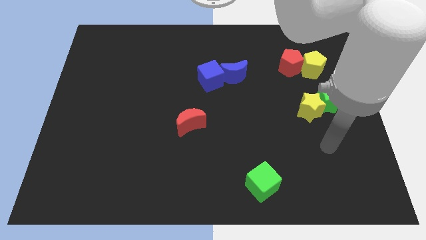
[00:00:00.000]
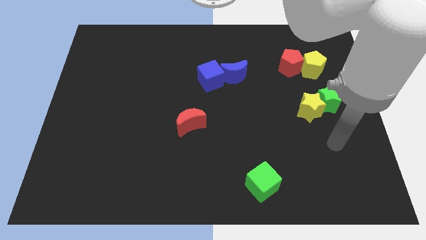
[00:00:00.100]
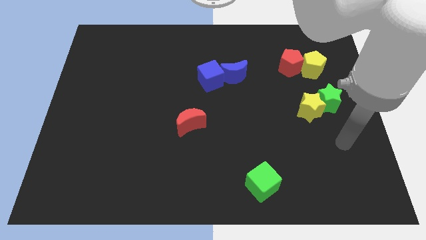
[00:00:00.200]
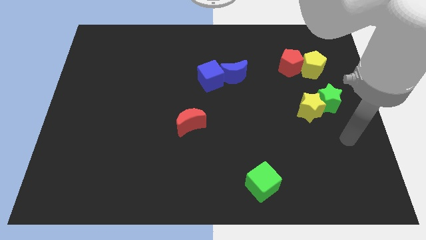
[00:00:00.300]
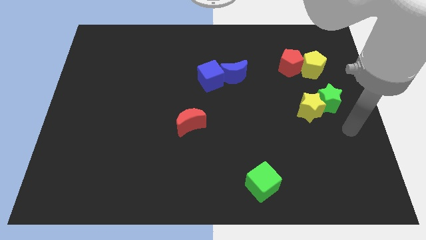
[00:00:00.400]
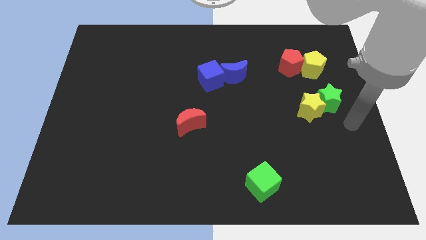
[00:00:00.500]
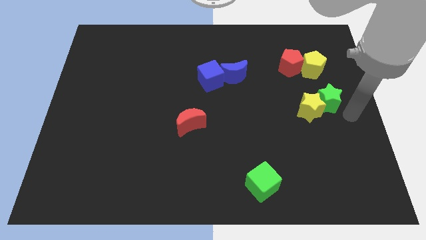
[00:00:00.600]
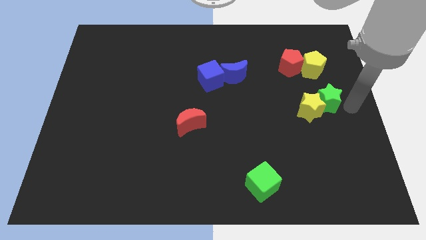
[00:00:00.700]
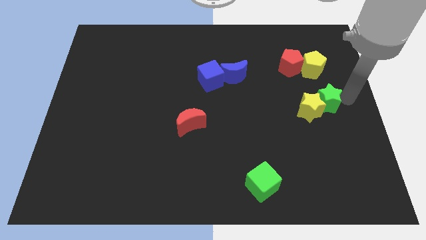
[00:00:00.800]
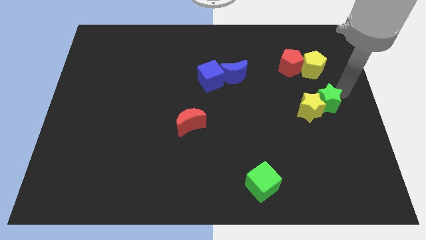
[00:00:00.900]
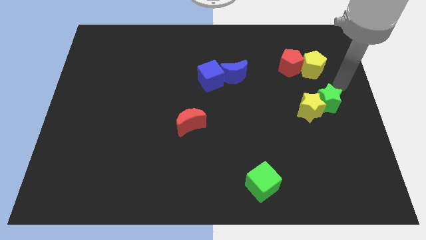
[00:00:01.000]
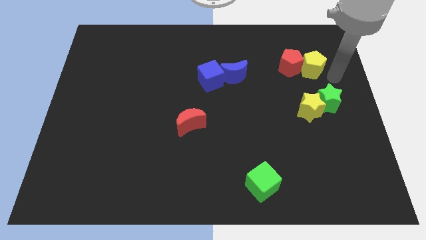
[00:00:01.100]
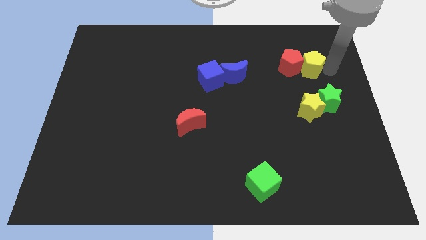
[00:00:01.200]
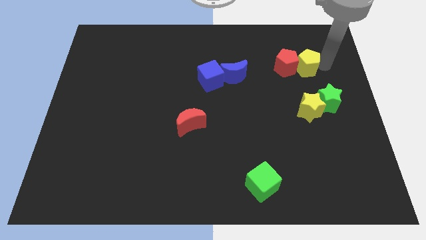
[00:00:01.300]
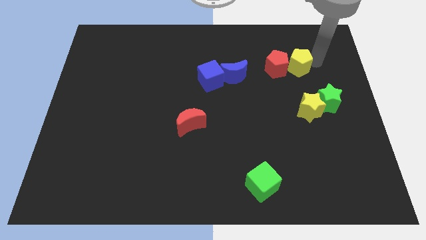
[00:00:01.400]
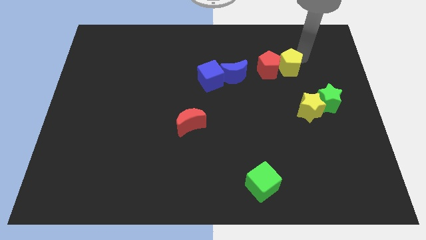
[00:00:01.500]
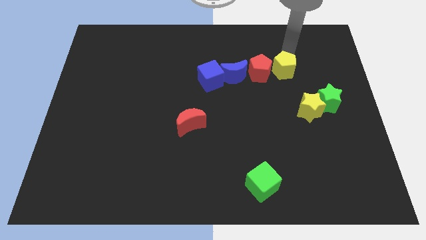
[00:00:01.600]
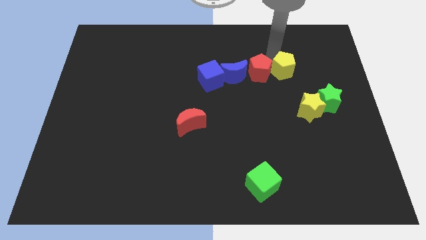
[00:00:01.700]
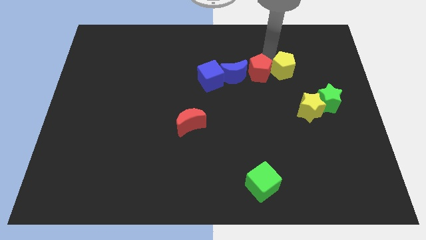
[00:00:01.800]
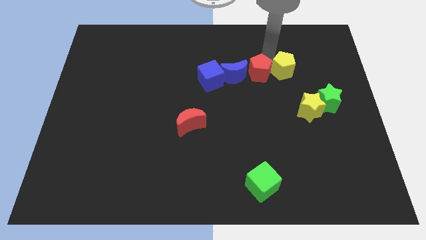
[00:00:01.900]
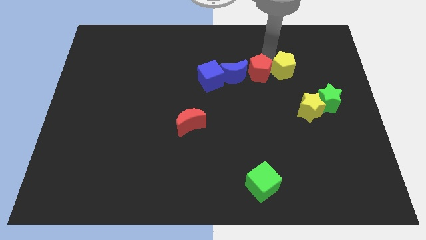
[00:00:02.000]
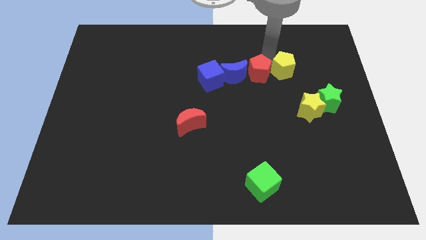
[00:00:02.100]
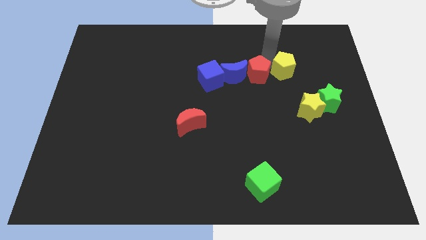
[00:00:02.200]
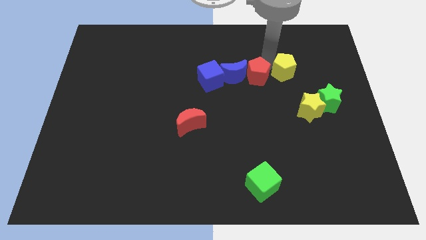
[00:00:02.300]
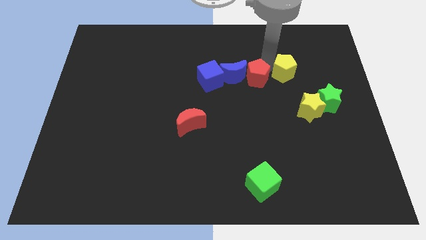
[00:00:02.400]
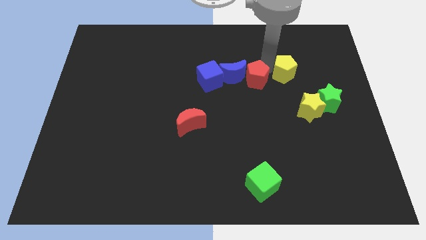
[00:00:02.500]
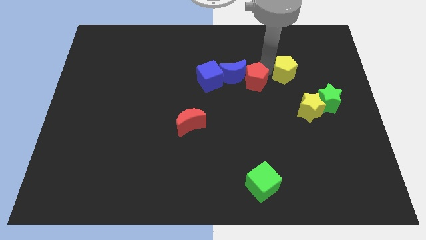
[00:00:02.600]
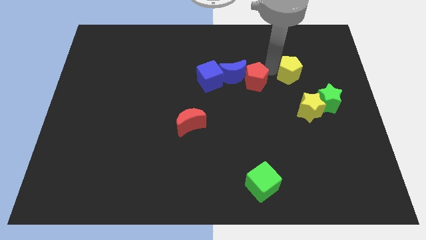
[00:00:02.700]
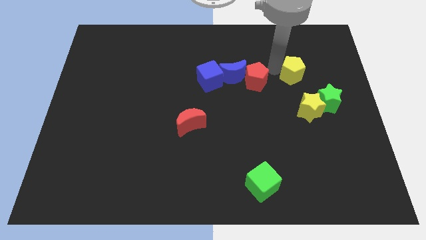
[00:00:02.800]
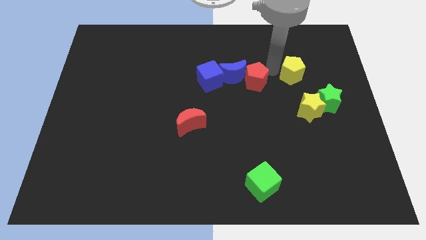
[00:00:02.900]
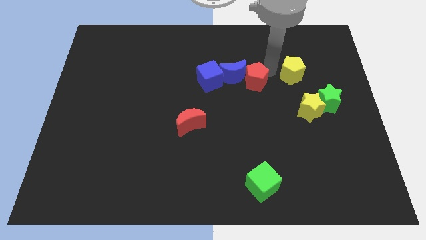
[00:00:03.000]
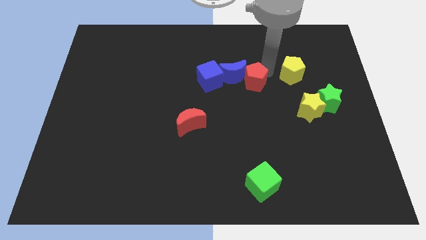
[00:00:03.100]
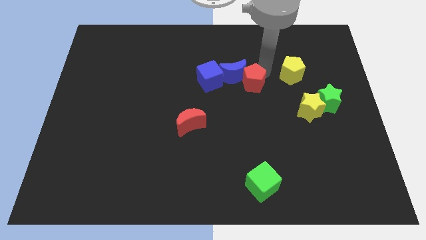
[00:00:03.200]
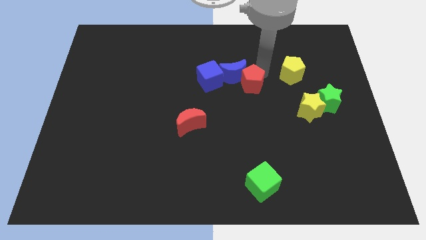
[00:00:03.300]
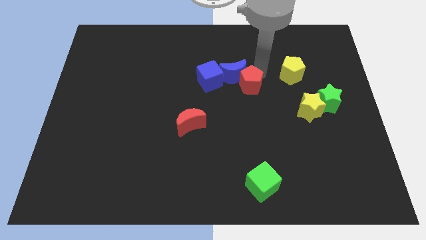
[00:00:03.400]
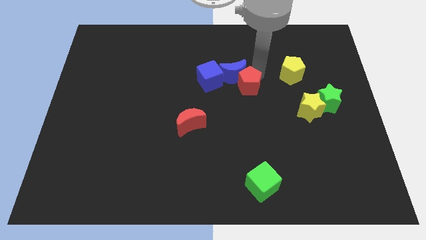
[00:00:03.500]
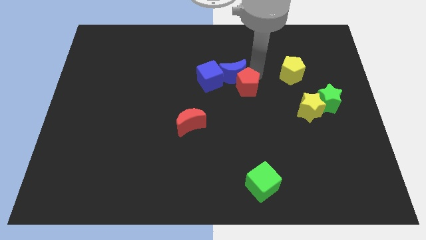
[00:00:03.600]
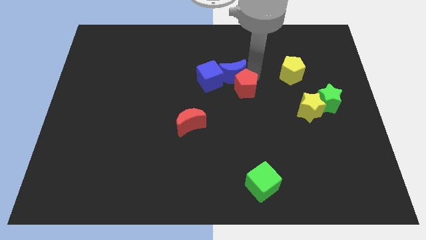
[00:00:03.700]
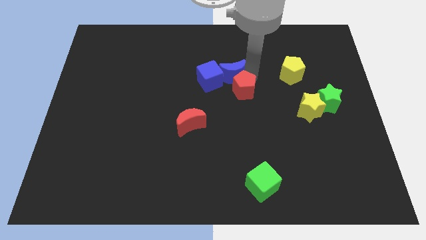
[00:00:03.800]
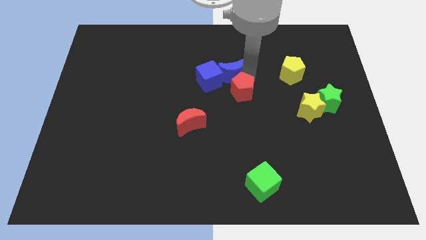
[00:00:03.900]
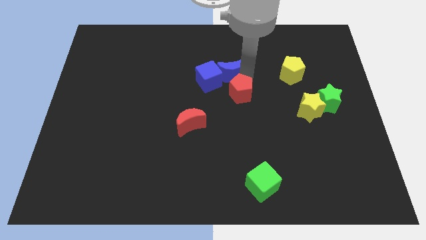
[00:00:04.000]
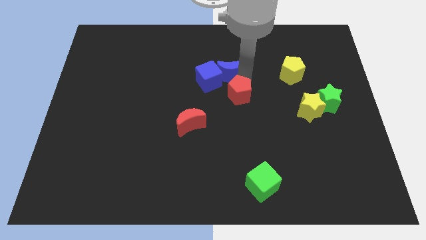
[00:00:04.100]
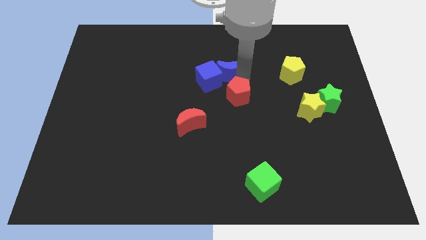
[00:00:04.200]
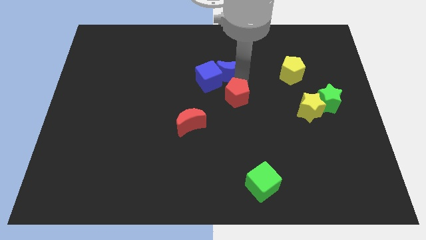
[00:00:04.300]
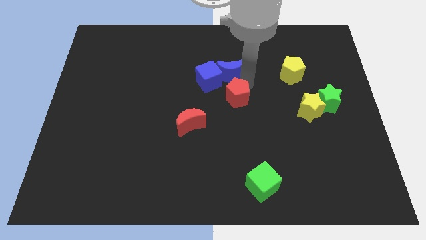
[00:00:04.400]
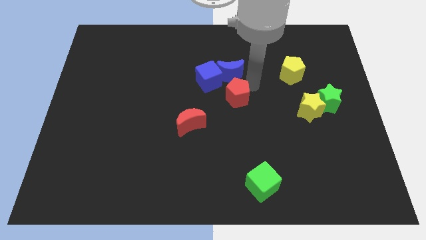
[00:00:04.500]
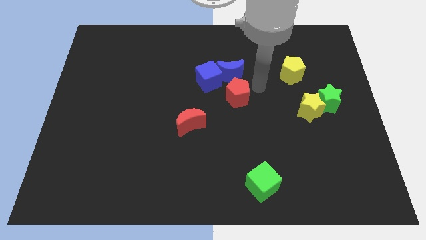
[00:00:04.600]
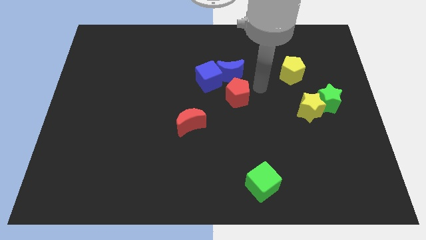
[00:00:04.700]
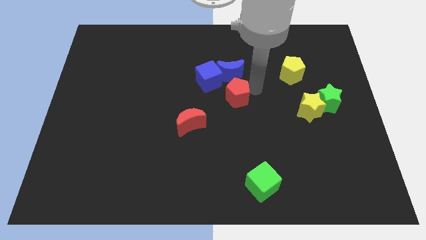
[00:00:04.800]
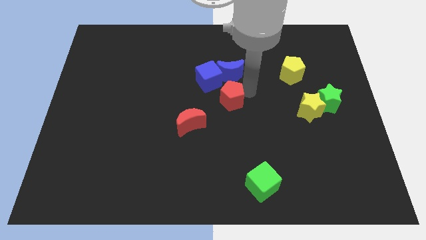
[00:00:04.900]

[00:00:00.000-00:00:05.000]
slide the red pentagon to the top right of the red moon

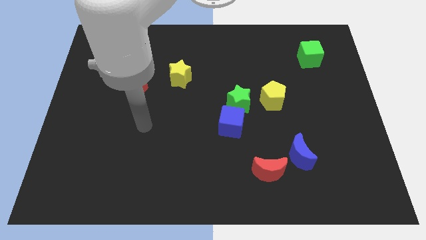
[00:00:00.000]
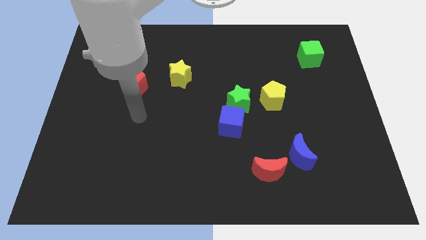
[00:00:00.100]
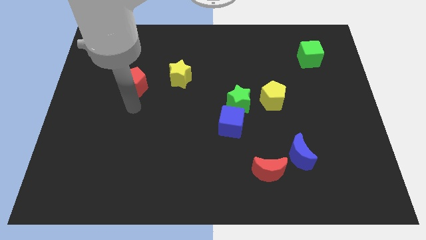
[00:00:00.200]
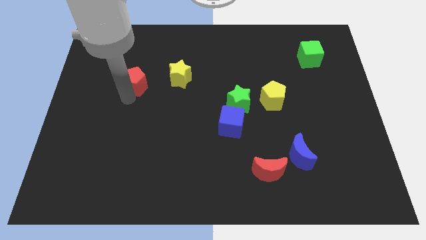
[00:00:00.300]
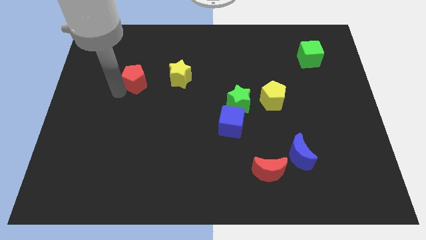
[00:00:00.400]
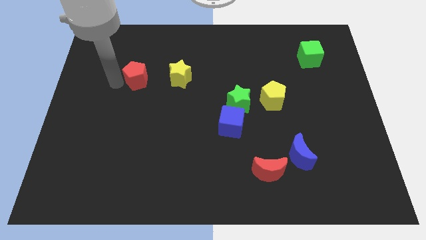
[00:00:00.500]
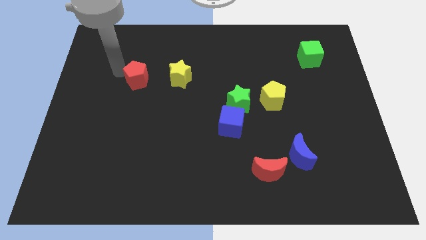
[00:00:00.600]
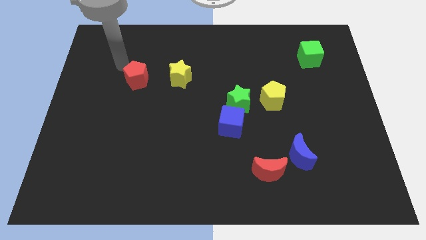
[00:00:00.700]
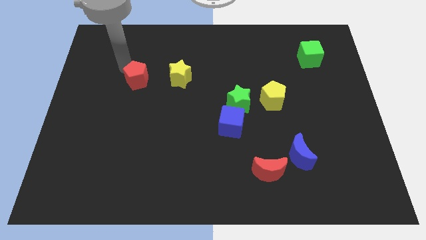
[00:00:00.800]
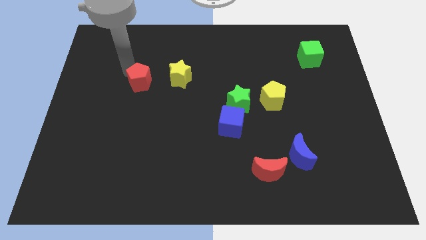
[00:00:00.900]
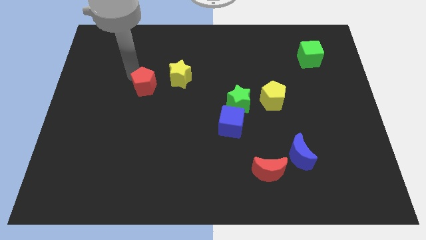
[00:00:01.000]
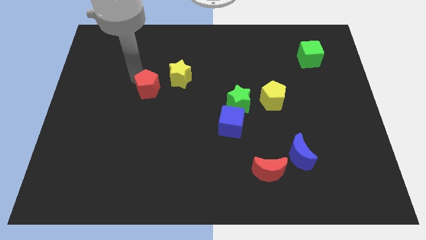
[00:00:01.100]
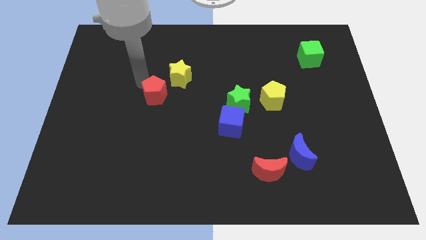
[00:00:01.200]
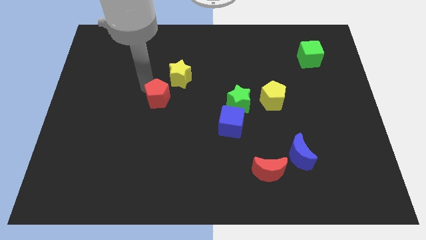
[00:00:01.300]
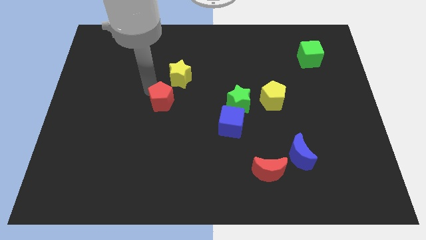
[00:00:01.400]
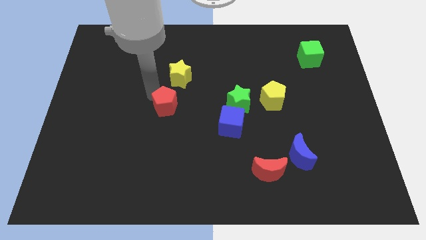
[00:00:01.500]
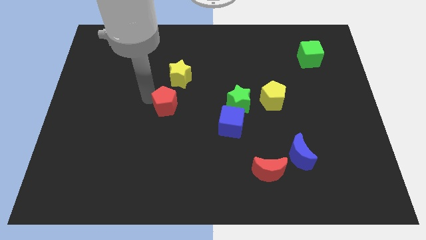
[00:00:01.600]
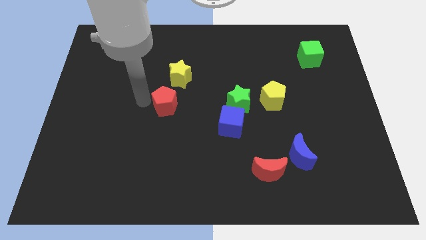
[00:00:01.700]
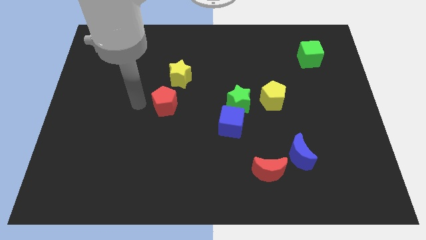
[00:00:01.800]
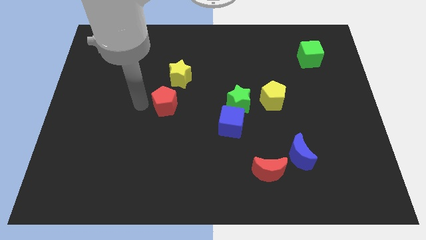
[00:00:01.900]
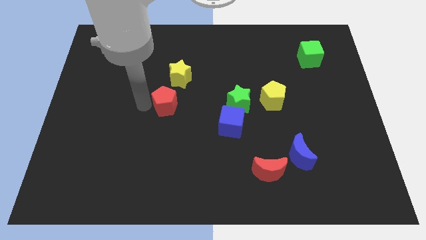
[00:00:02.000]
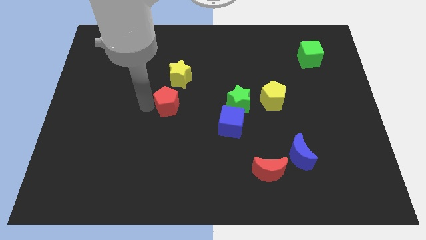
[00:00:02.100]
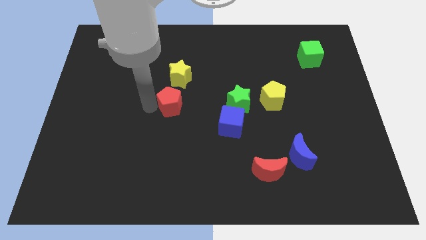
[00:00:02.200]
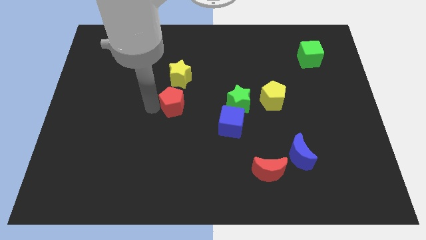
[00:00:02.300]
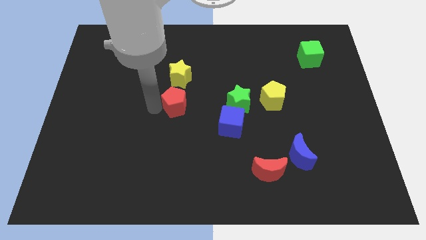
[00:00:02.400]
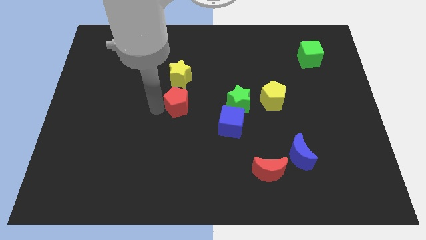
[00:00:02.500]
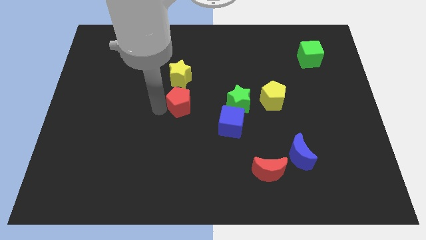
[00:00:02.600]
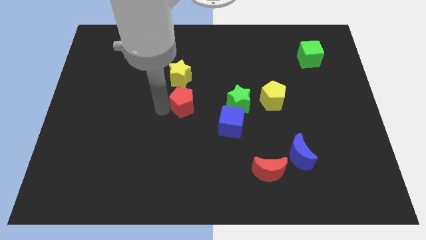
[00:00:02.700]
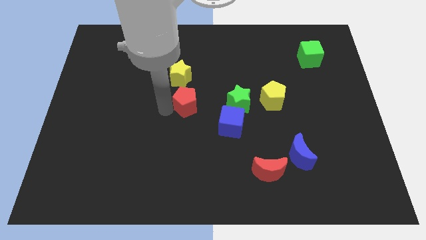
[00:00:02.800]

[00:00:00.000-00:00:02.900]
put the red pentagon diagonally up and to the left of the blue cube

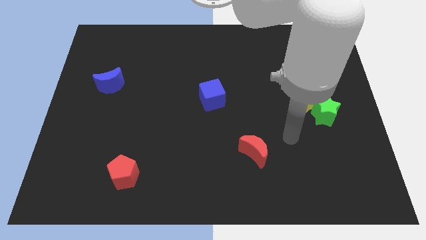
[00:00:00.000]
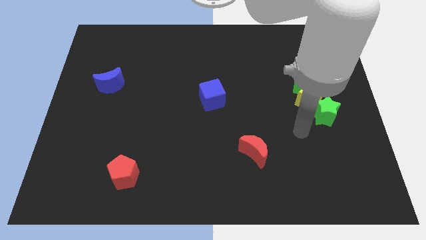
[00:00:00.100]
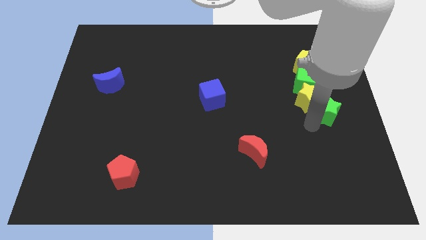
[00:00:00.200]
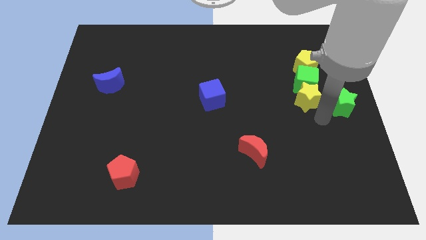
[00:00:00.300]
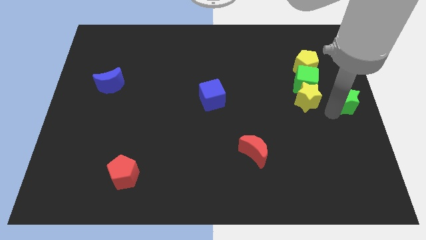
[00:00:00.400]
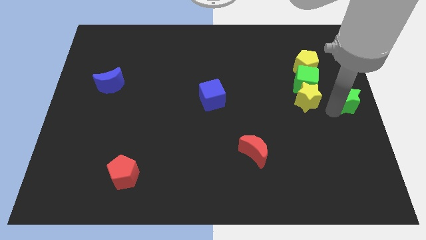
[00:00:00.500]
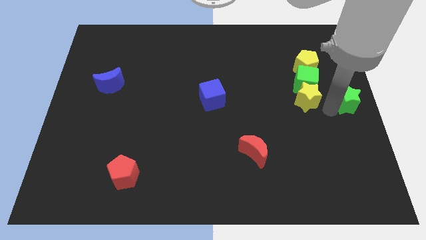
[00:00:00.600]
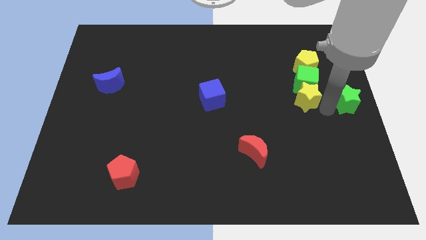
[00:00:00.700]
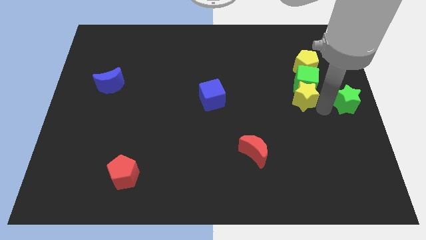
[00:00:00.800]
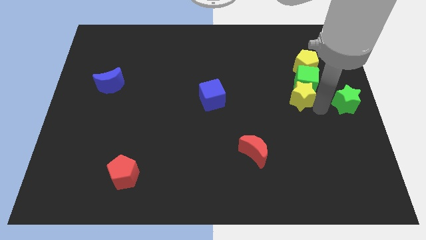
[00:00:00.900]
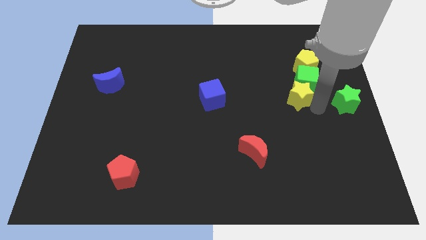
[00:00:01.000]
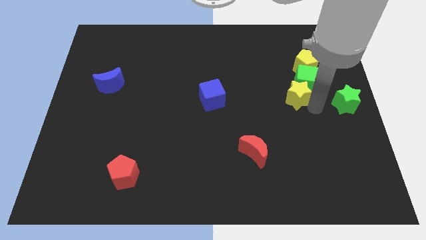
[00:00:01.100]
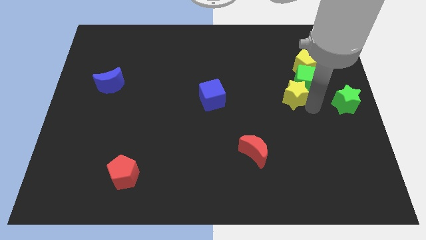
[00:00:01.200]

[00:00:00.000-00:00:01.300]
push the yellow star left of the green cube
